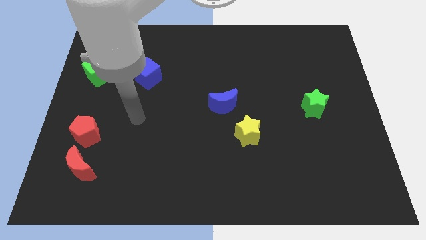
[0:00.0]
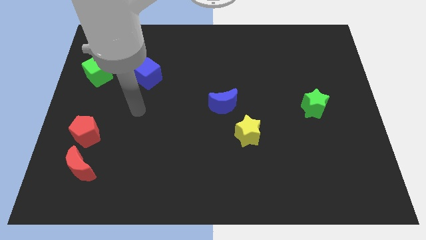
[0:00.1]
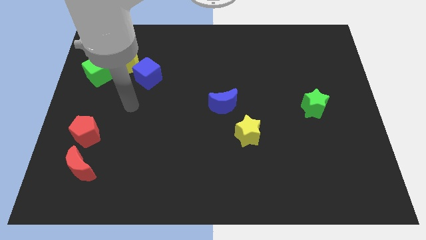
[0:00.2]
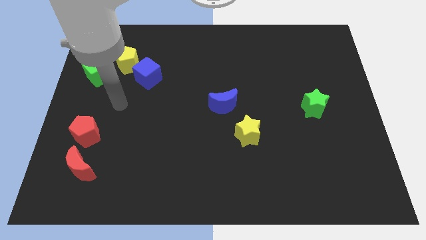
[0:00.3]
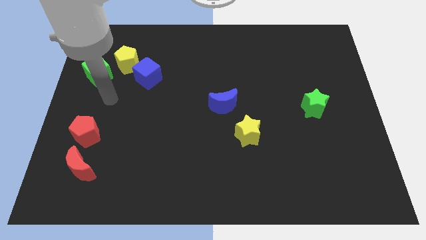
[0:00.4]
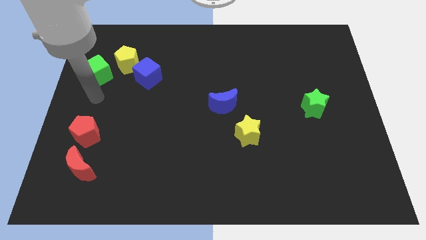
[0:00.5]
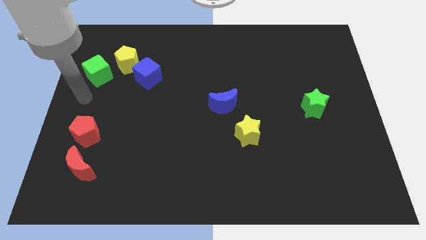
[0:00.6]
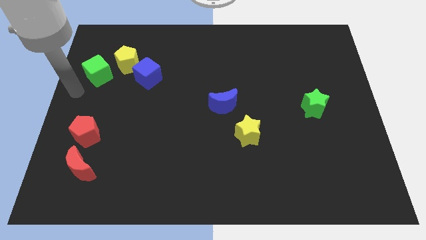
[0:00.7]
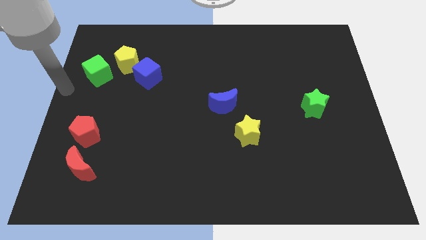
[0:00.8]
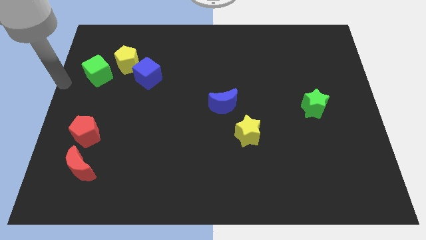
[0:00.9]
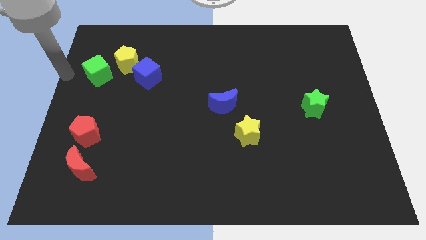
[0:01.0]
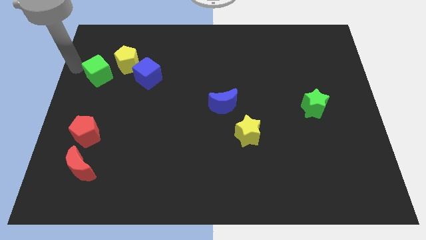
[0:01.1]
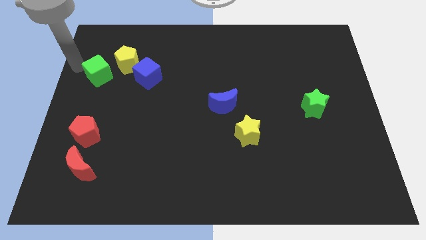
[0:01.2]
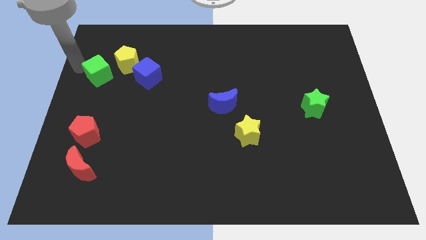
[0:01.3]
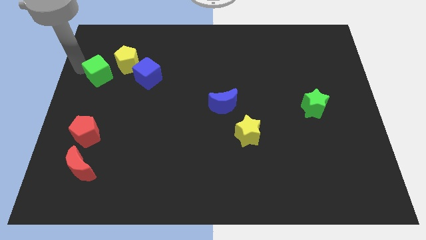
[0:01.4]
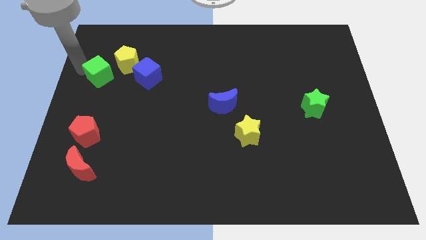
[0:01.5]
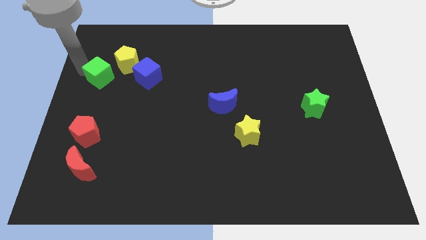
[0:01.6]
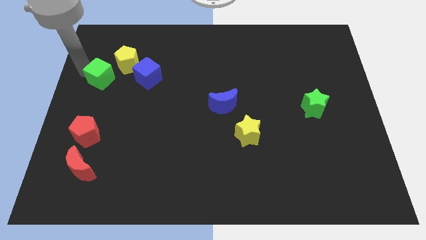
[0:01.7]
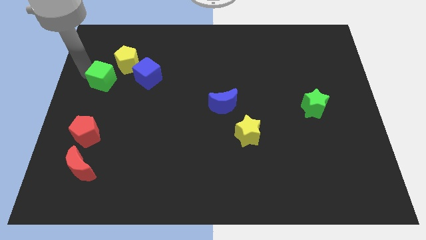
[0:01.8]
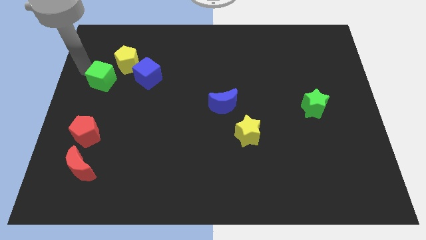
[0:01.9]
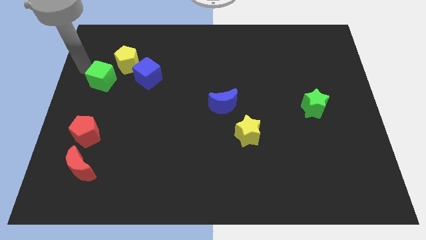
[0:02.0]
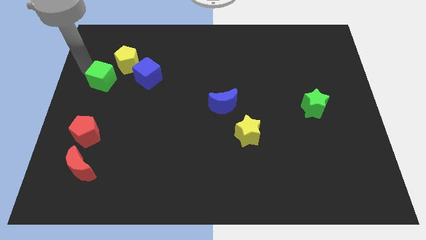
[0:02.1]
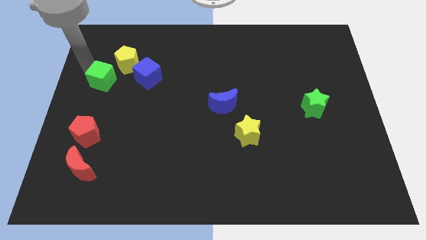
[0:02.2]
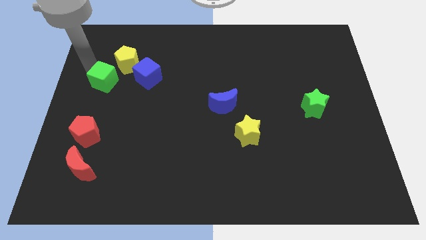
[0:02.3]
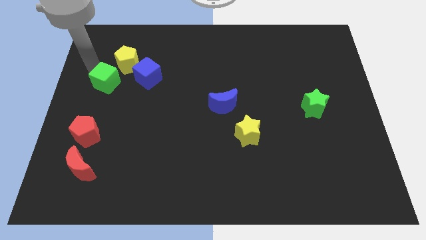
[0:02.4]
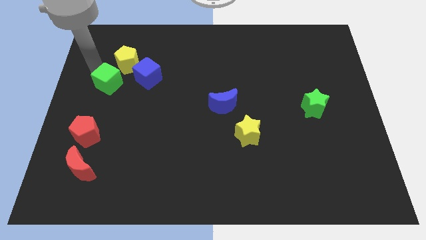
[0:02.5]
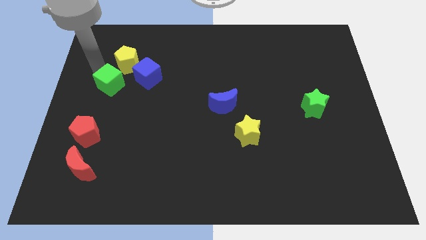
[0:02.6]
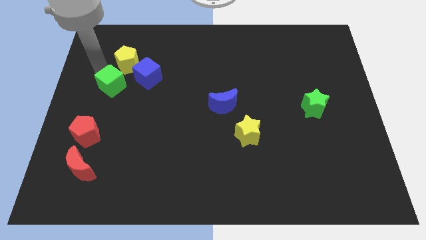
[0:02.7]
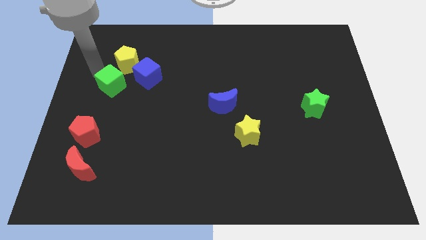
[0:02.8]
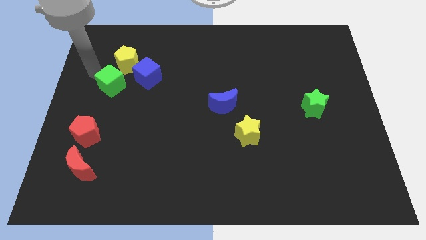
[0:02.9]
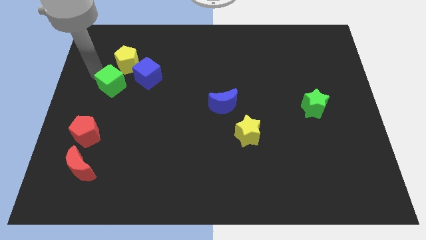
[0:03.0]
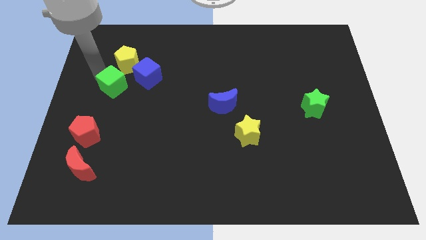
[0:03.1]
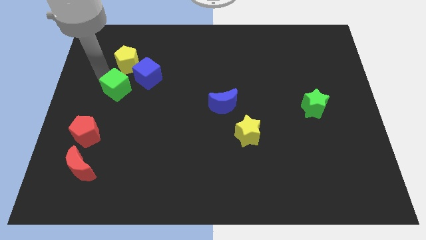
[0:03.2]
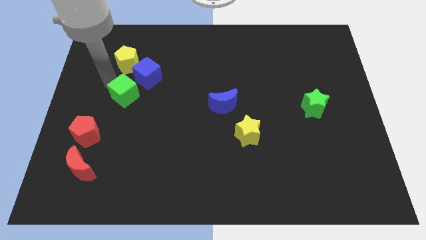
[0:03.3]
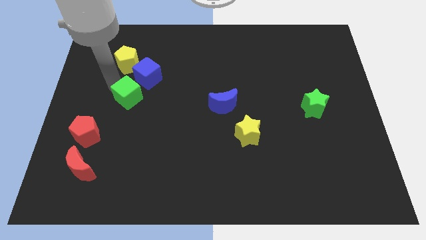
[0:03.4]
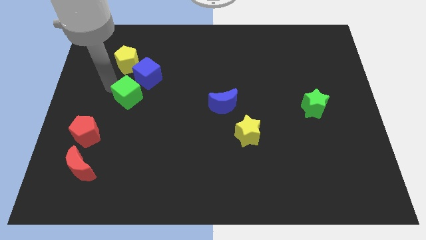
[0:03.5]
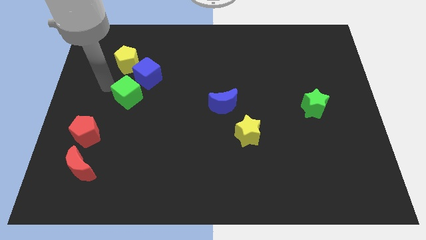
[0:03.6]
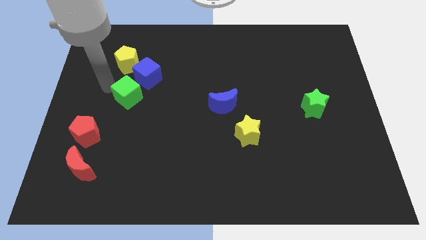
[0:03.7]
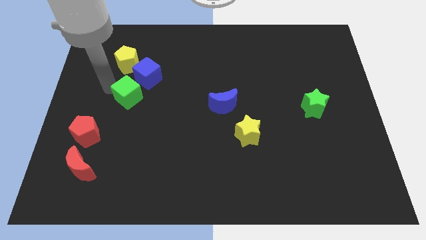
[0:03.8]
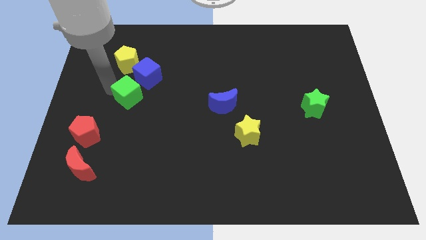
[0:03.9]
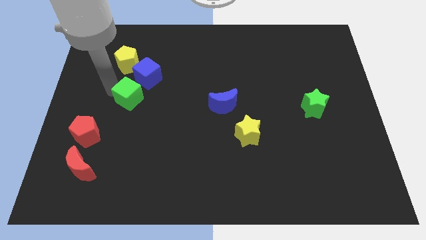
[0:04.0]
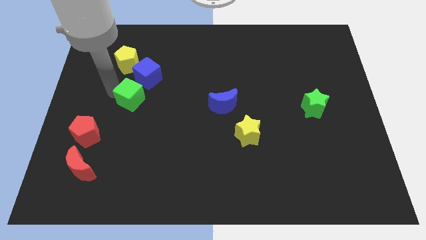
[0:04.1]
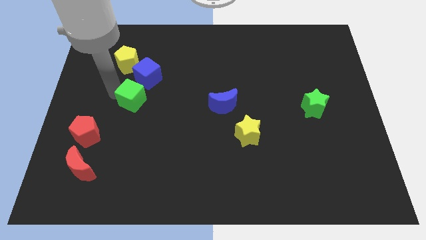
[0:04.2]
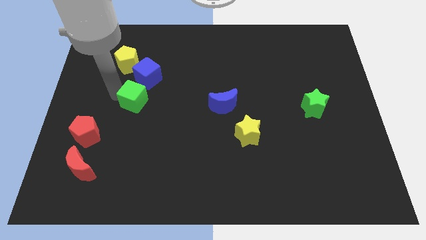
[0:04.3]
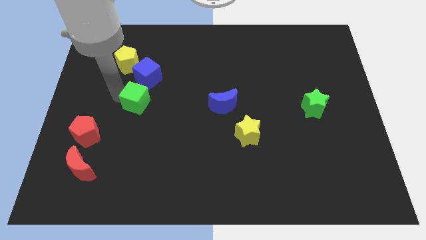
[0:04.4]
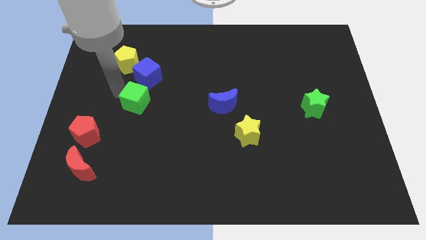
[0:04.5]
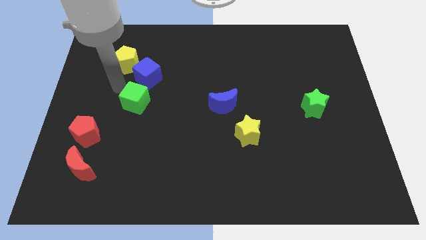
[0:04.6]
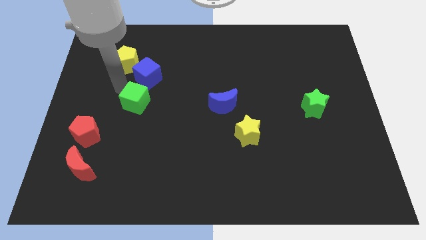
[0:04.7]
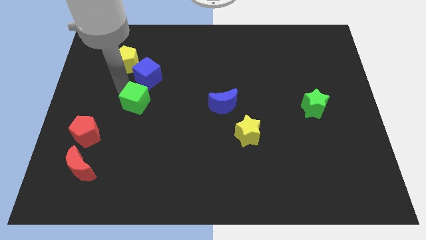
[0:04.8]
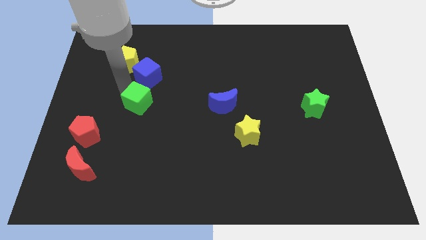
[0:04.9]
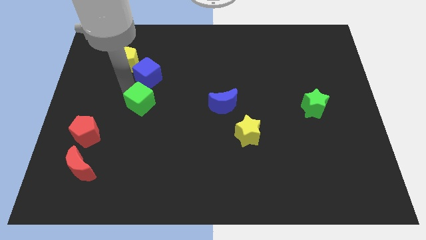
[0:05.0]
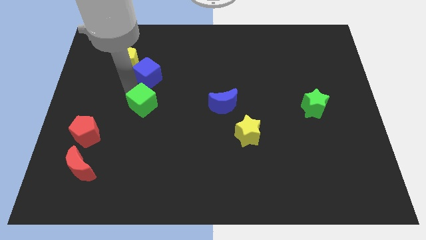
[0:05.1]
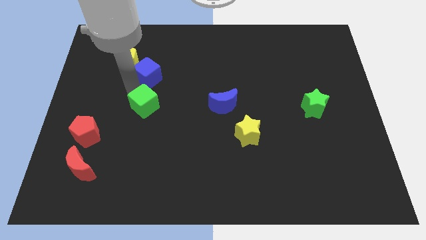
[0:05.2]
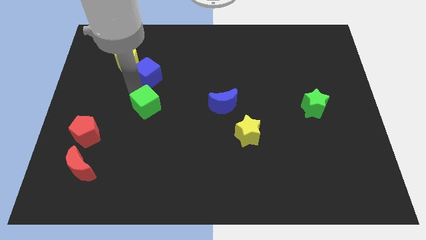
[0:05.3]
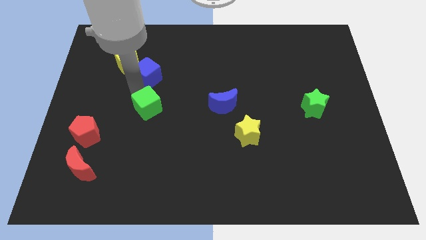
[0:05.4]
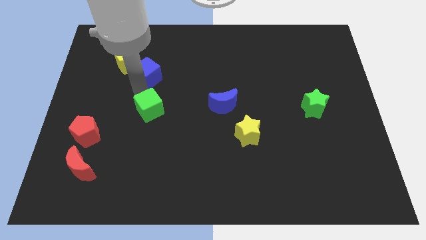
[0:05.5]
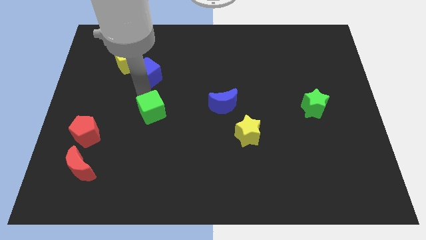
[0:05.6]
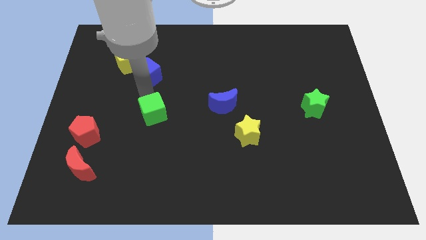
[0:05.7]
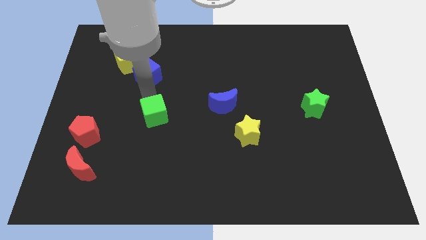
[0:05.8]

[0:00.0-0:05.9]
move the green cube diagonally downwards and to the right

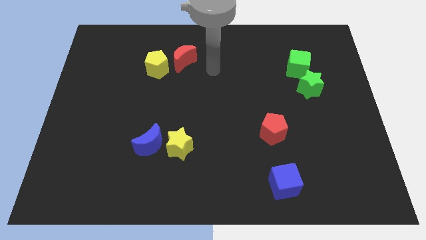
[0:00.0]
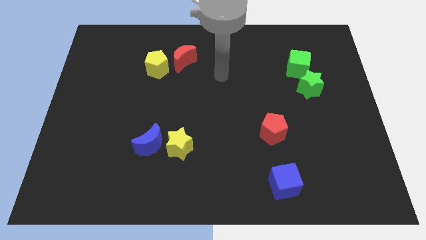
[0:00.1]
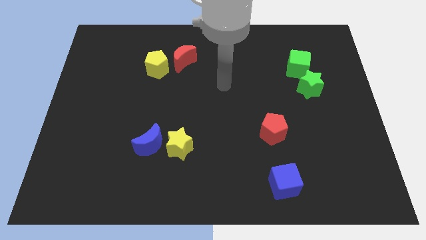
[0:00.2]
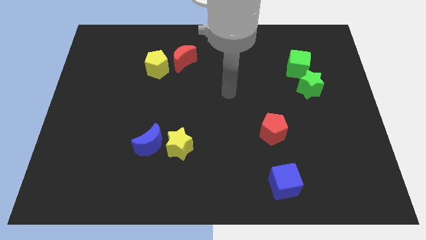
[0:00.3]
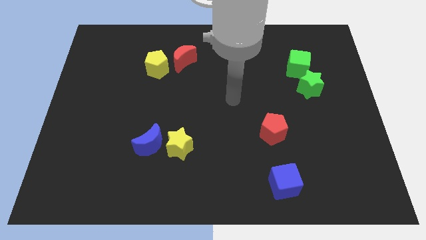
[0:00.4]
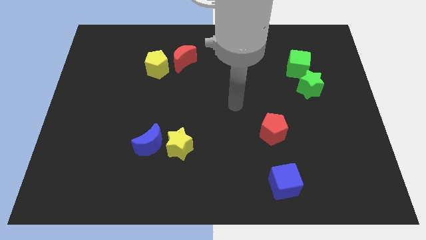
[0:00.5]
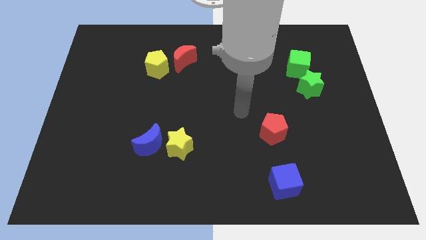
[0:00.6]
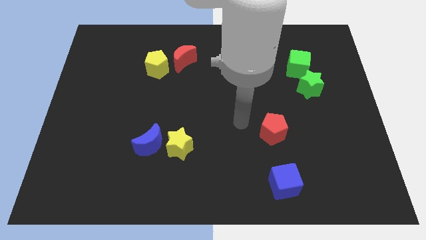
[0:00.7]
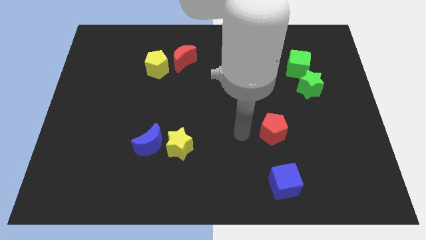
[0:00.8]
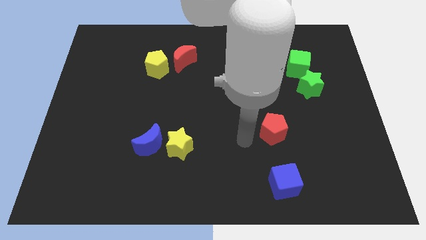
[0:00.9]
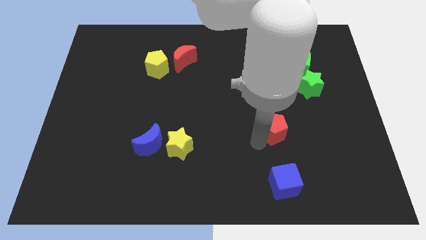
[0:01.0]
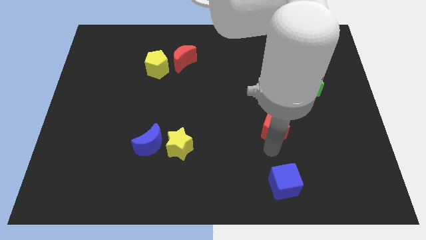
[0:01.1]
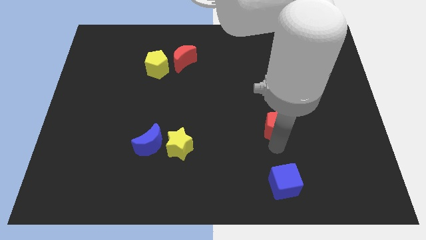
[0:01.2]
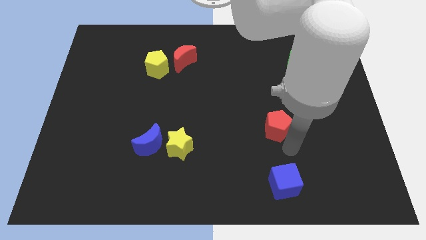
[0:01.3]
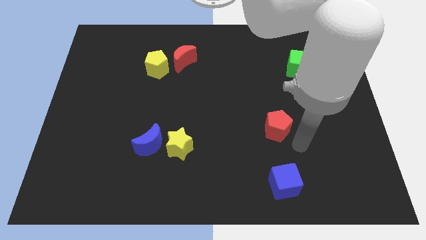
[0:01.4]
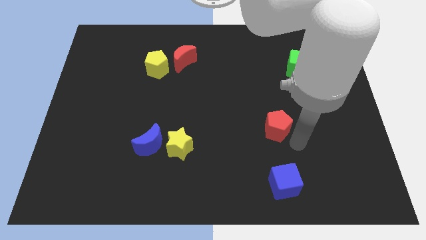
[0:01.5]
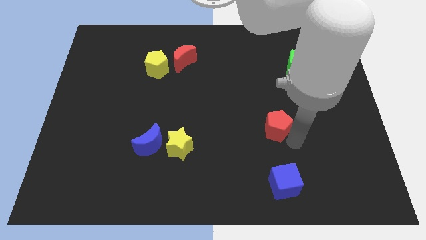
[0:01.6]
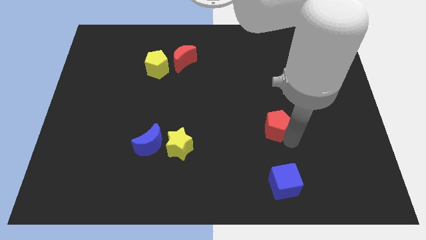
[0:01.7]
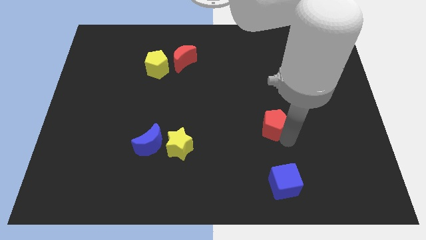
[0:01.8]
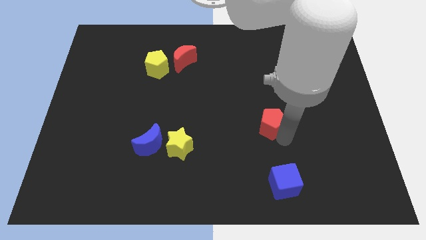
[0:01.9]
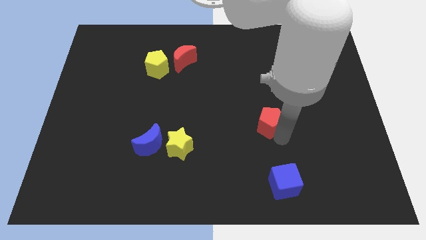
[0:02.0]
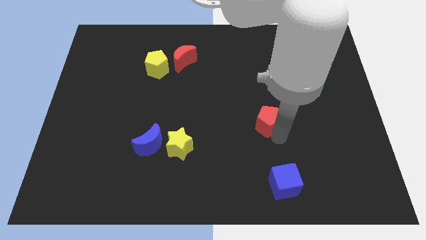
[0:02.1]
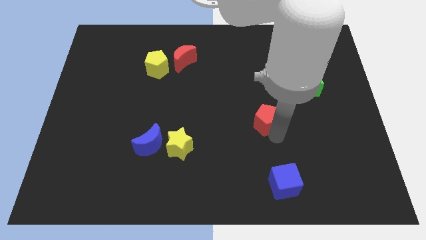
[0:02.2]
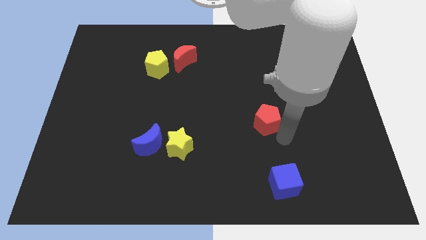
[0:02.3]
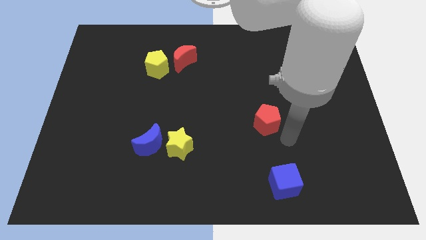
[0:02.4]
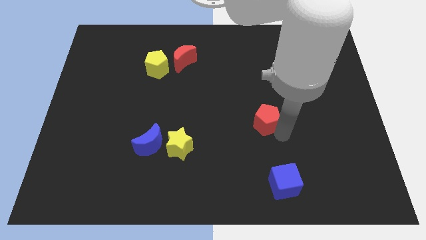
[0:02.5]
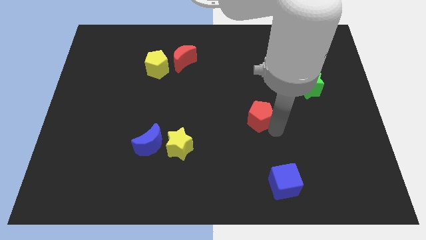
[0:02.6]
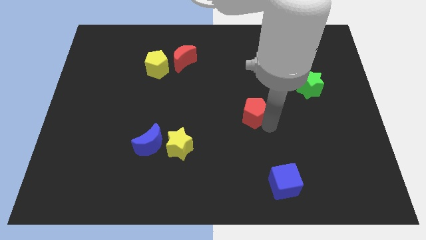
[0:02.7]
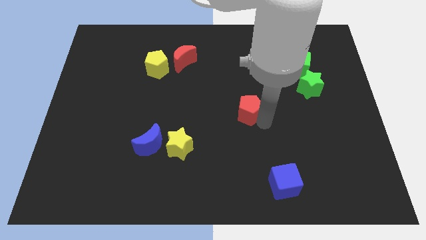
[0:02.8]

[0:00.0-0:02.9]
move the red pentagon somewhat up and left diagonally
